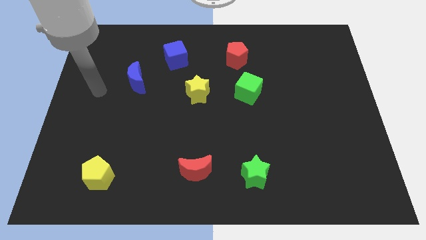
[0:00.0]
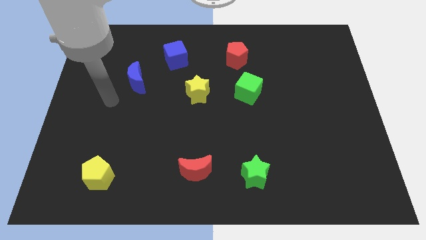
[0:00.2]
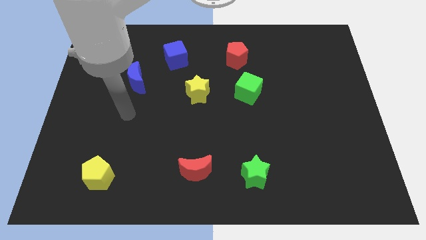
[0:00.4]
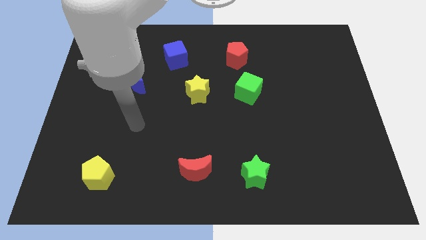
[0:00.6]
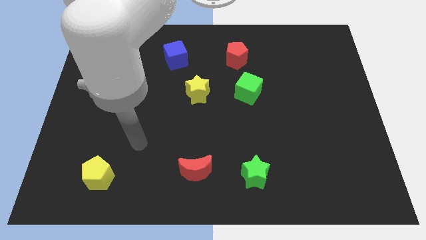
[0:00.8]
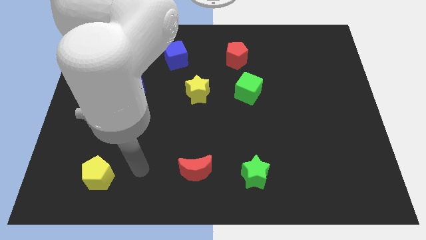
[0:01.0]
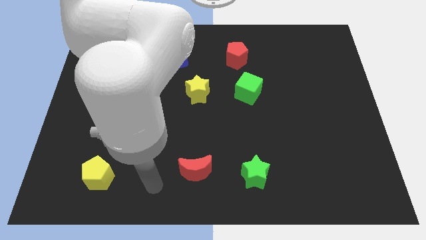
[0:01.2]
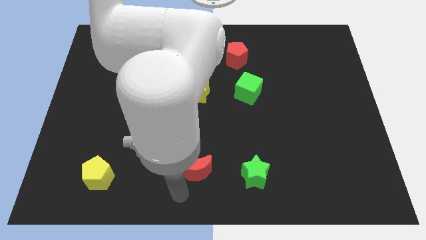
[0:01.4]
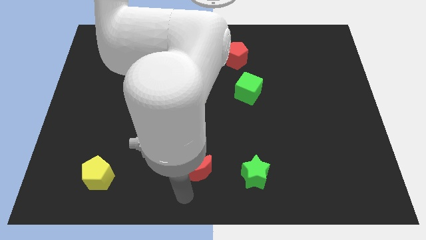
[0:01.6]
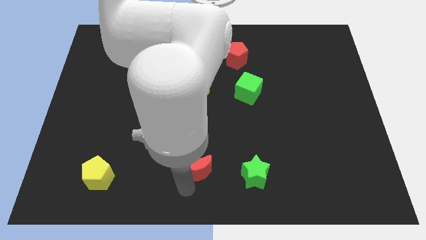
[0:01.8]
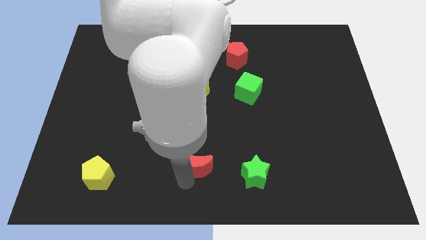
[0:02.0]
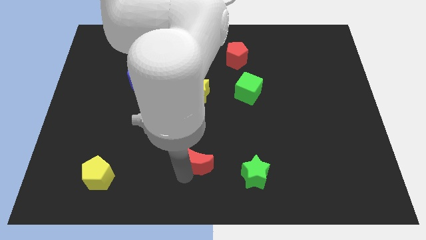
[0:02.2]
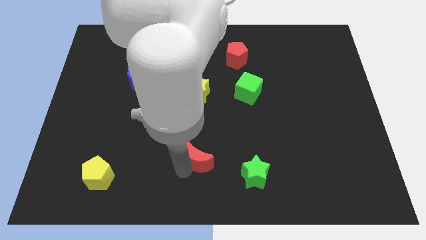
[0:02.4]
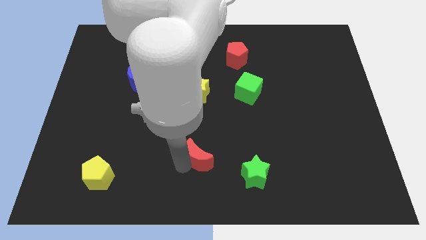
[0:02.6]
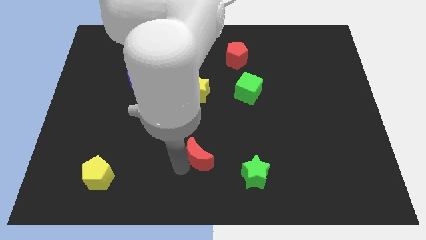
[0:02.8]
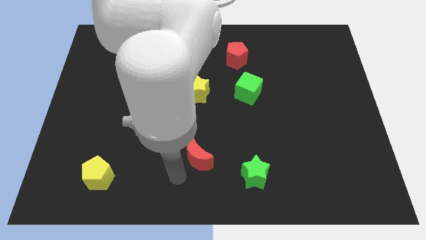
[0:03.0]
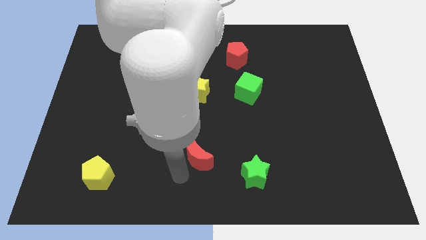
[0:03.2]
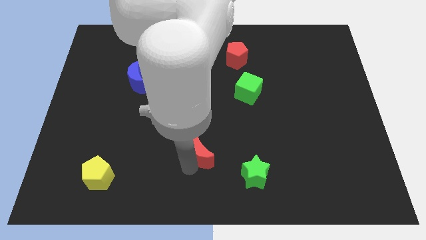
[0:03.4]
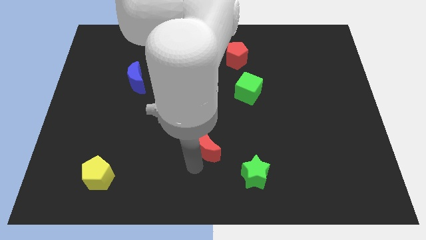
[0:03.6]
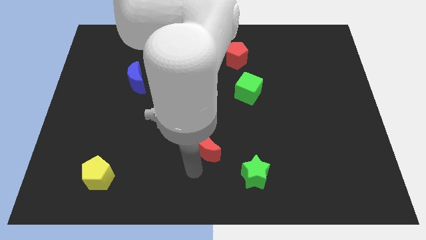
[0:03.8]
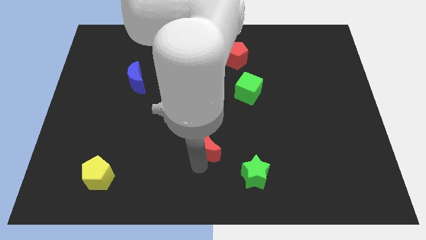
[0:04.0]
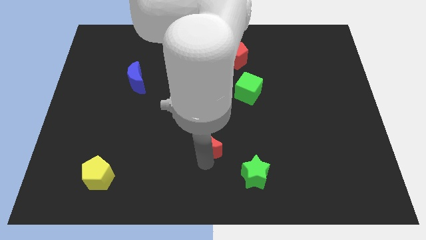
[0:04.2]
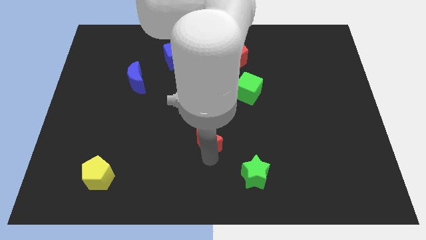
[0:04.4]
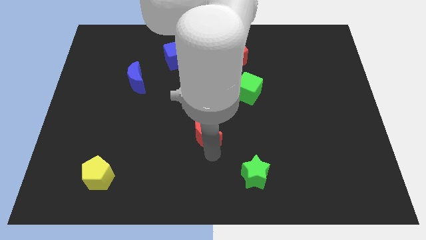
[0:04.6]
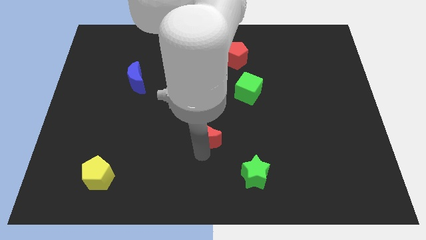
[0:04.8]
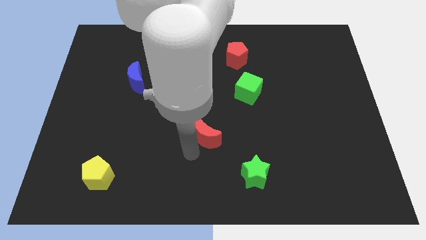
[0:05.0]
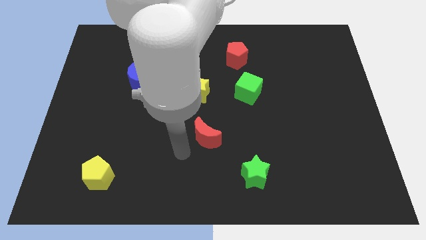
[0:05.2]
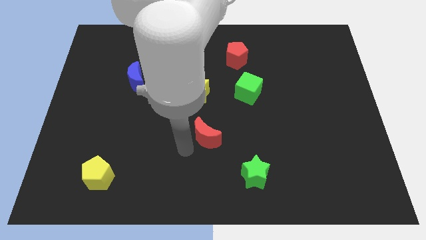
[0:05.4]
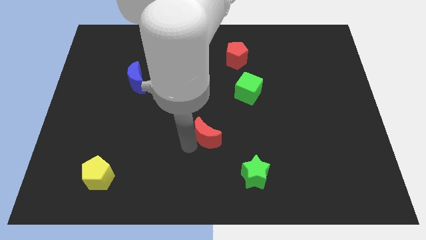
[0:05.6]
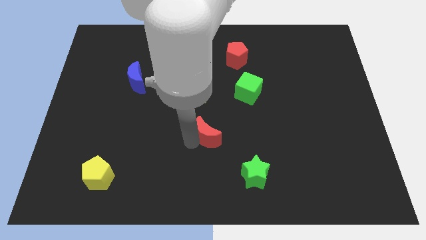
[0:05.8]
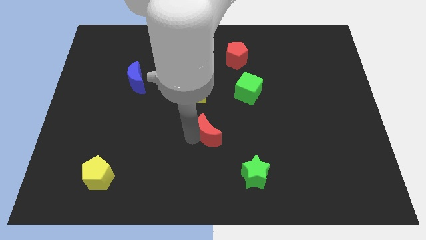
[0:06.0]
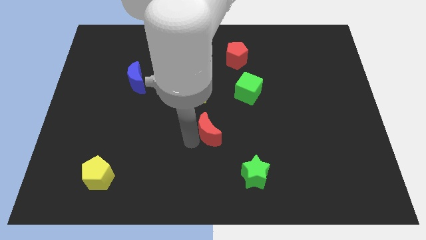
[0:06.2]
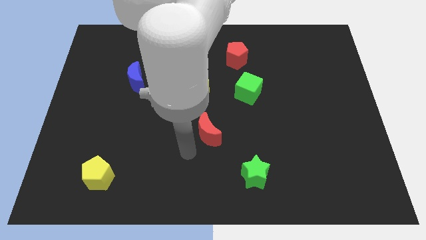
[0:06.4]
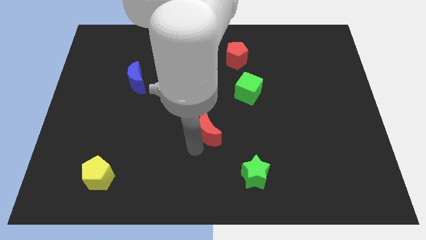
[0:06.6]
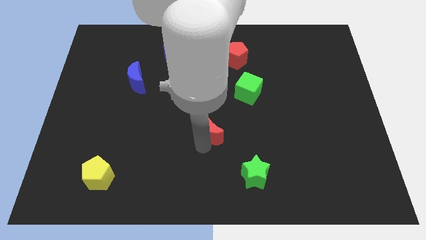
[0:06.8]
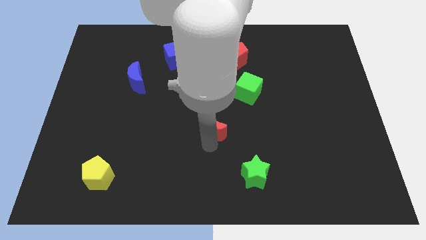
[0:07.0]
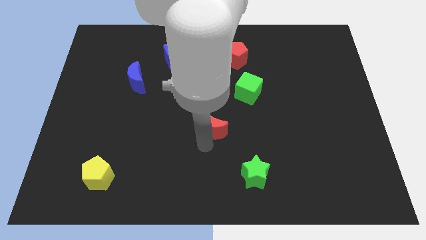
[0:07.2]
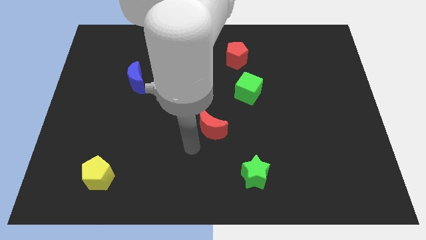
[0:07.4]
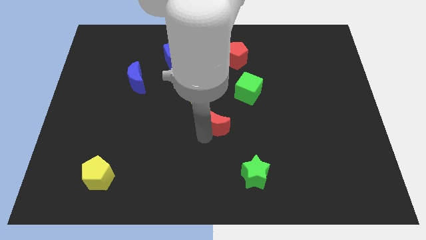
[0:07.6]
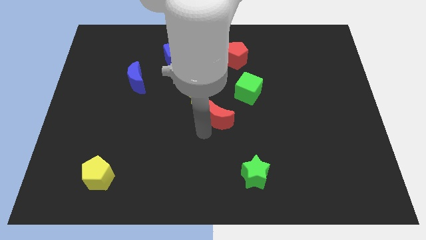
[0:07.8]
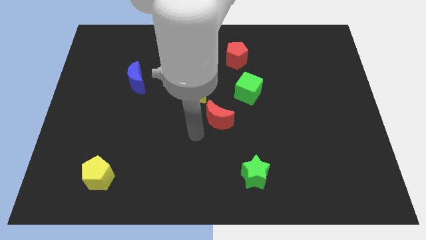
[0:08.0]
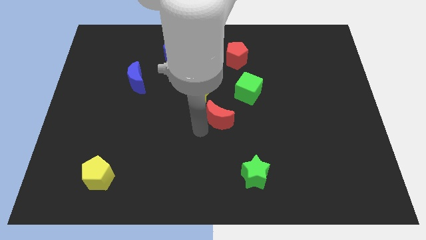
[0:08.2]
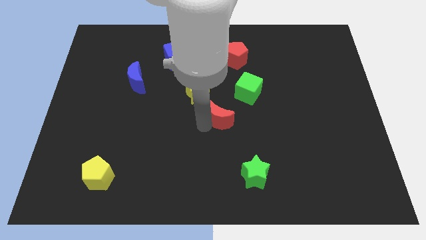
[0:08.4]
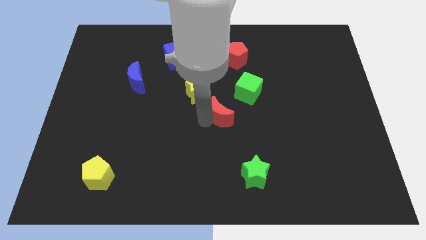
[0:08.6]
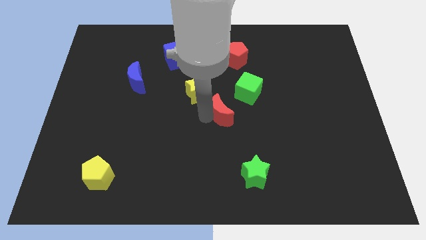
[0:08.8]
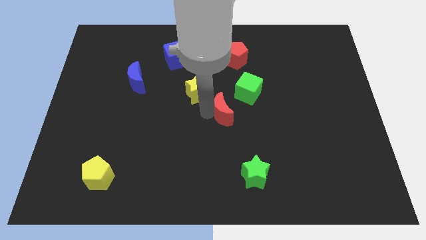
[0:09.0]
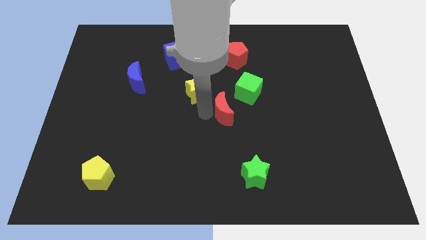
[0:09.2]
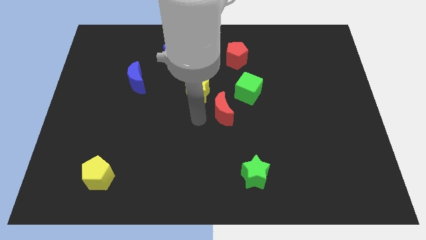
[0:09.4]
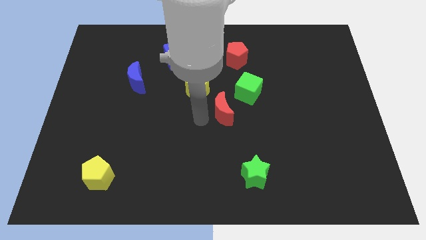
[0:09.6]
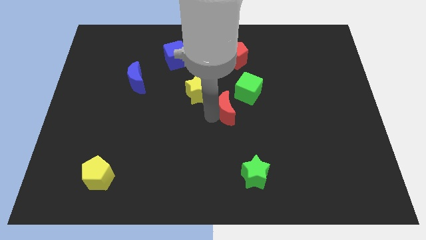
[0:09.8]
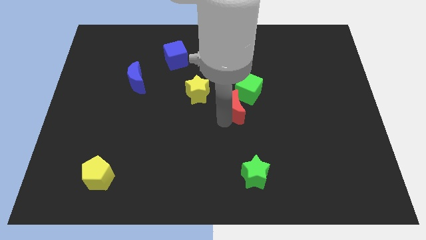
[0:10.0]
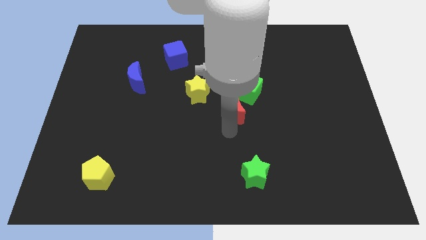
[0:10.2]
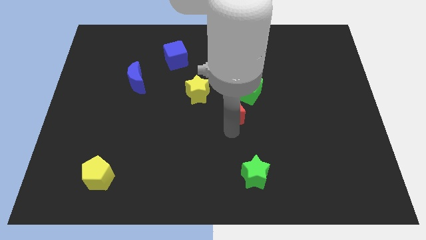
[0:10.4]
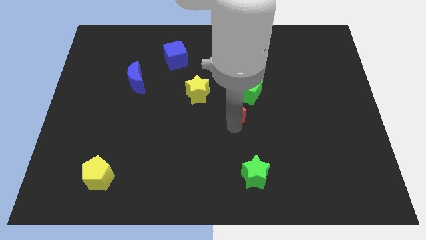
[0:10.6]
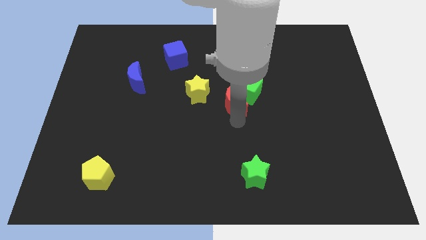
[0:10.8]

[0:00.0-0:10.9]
move the red moon below the red pentagon

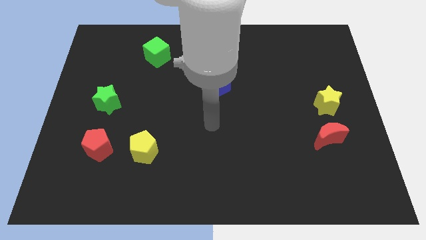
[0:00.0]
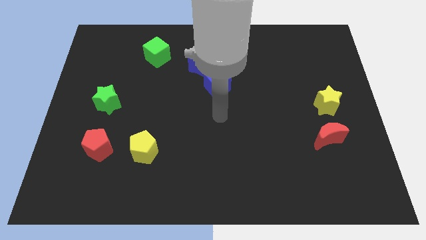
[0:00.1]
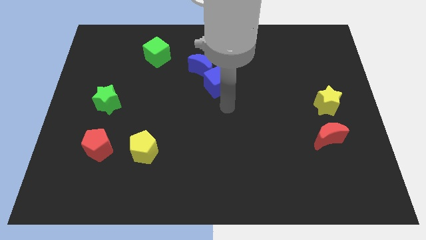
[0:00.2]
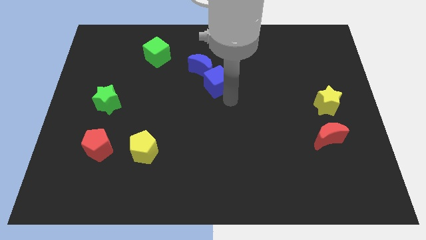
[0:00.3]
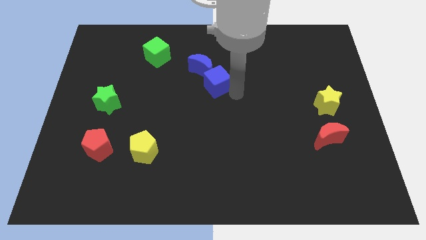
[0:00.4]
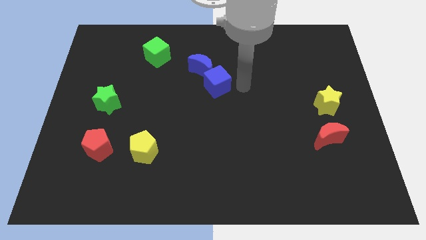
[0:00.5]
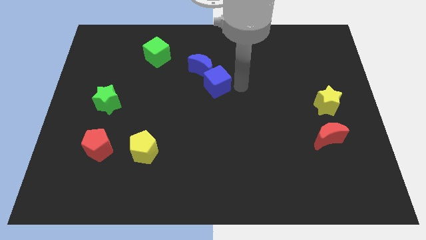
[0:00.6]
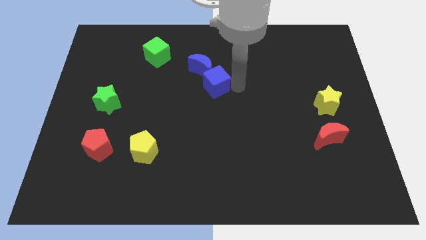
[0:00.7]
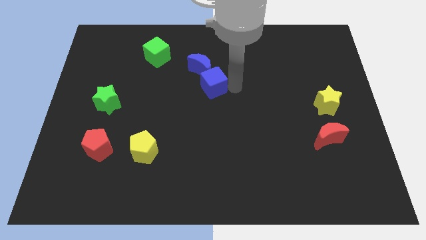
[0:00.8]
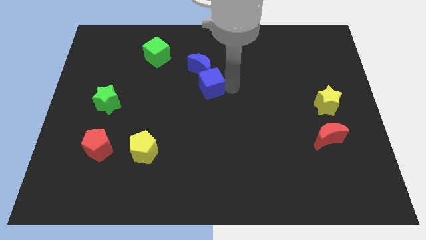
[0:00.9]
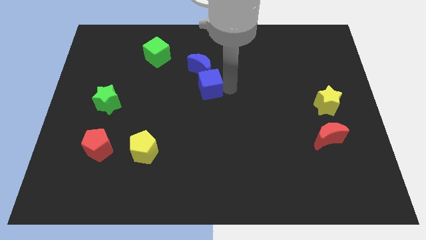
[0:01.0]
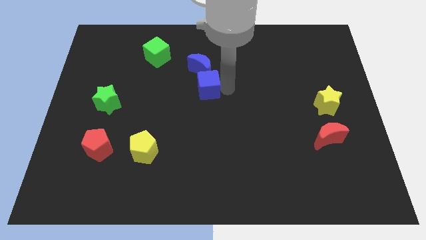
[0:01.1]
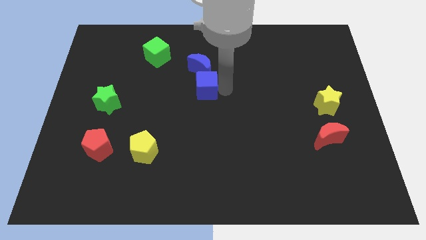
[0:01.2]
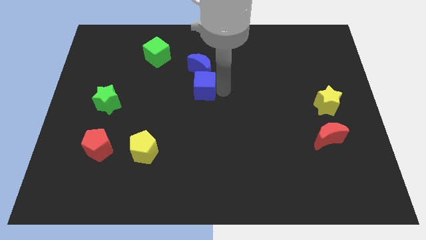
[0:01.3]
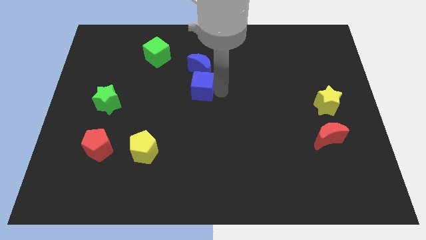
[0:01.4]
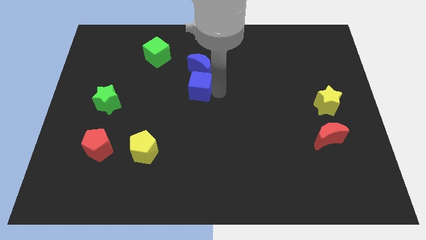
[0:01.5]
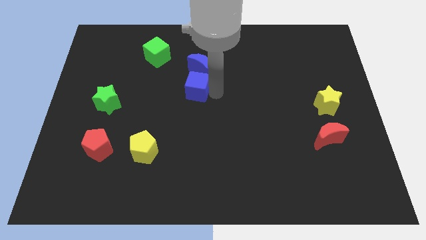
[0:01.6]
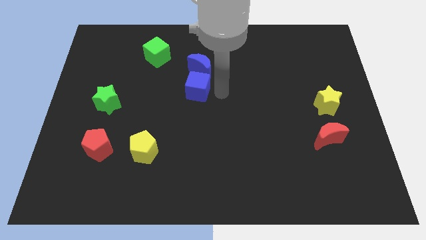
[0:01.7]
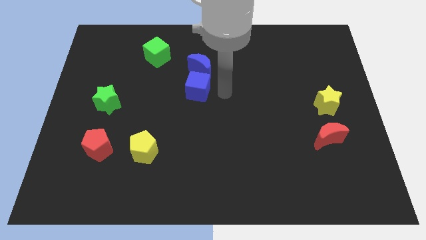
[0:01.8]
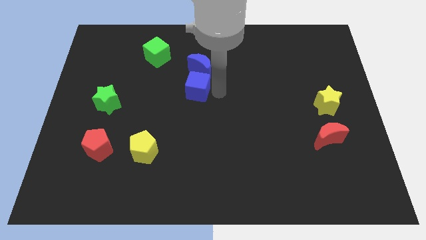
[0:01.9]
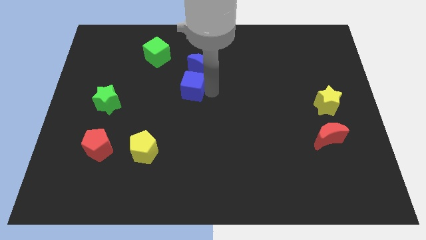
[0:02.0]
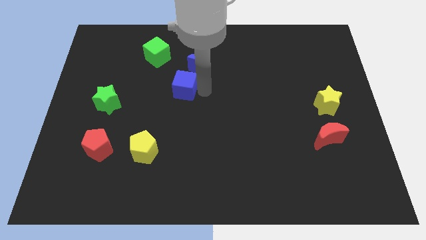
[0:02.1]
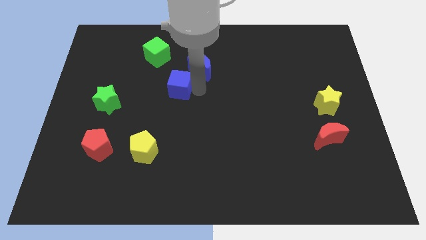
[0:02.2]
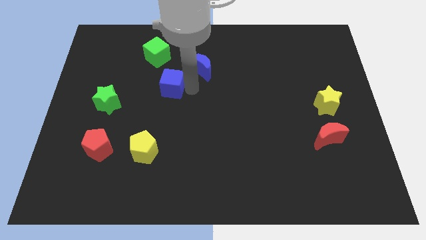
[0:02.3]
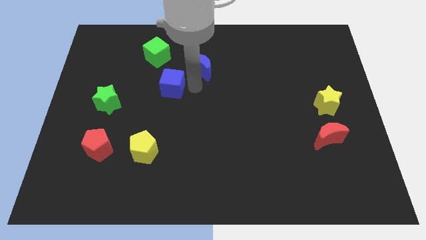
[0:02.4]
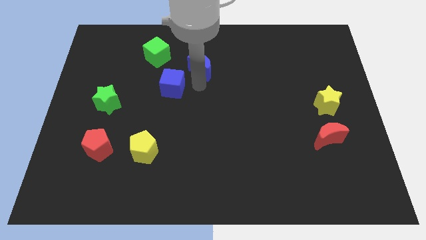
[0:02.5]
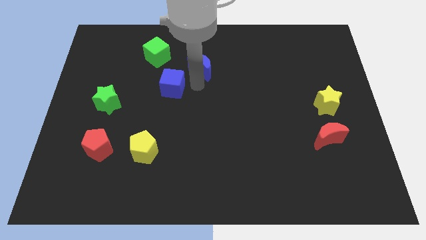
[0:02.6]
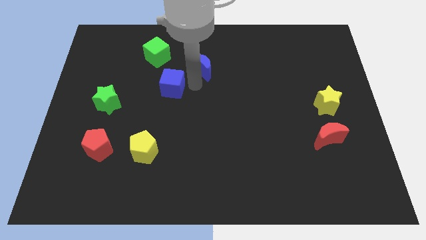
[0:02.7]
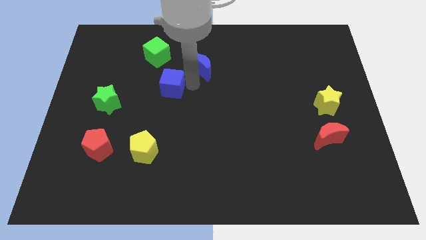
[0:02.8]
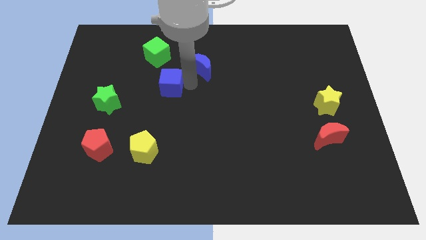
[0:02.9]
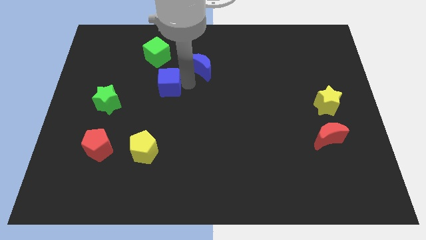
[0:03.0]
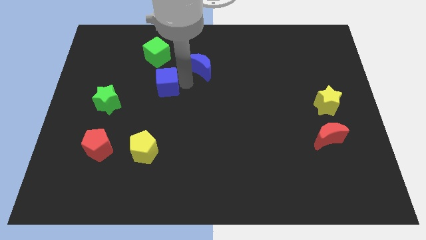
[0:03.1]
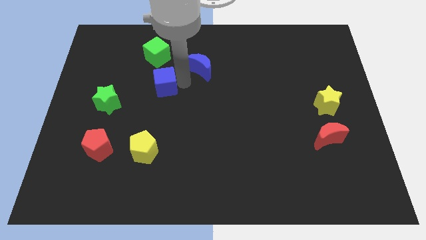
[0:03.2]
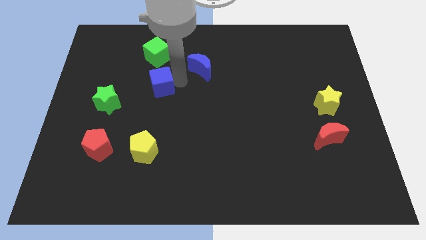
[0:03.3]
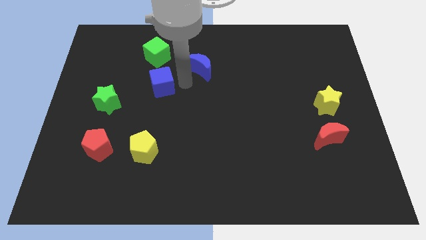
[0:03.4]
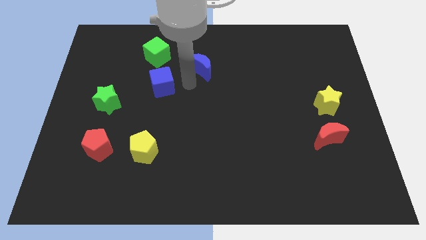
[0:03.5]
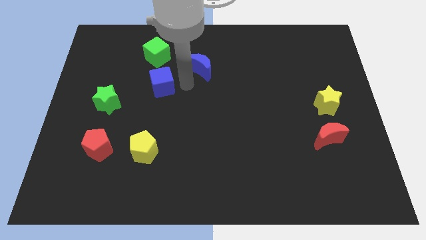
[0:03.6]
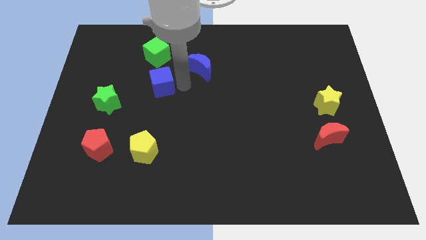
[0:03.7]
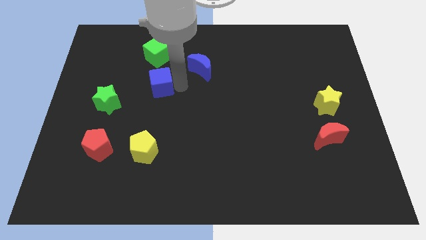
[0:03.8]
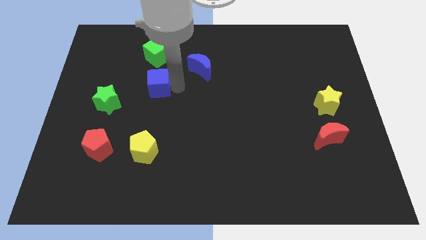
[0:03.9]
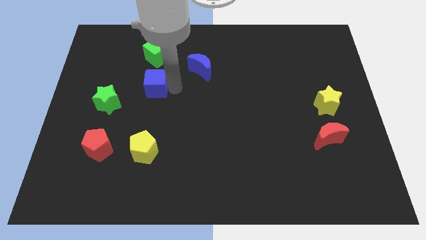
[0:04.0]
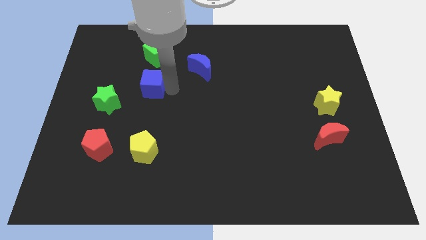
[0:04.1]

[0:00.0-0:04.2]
put the blue cube diagonally up and to the right of the green star
